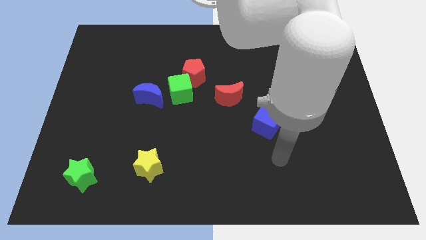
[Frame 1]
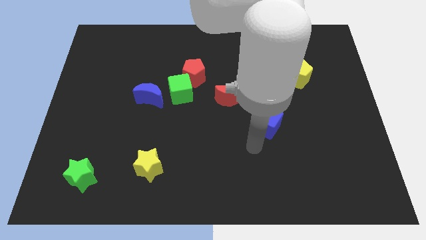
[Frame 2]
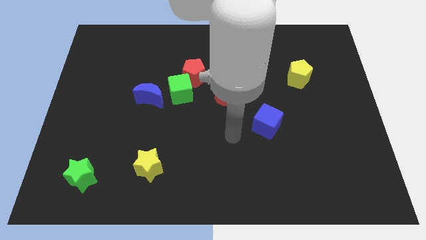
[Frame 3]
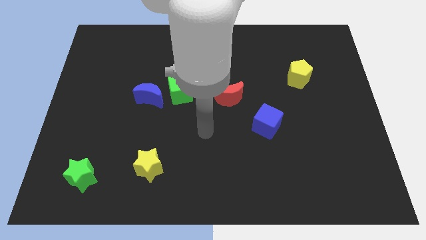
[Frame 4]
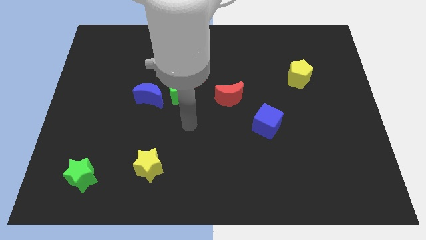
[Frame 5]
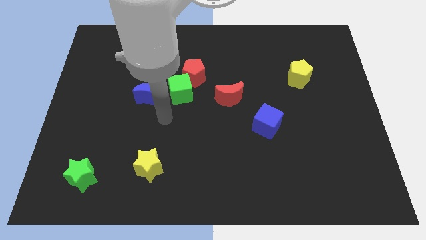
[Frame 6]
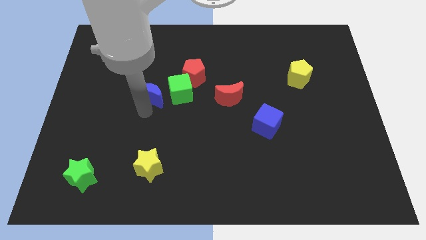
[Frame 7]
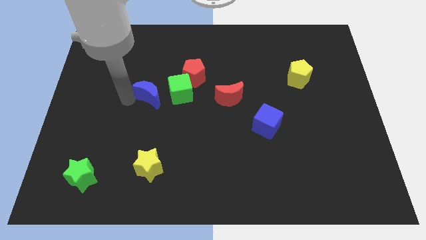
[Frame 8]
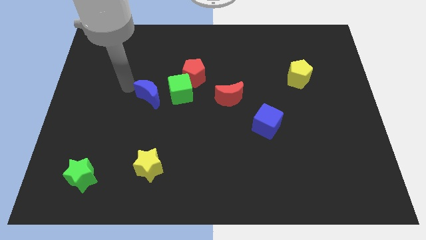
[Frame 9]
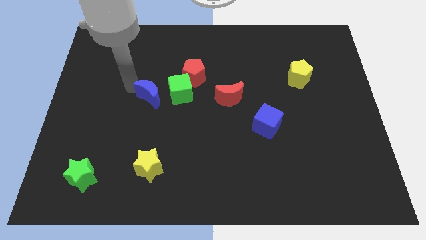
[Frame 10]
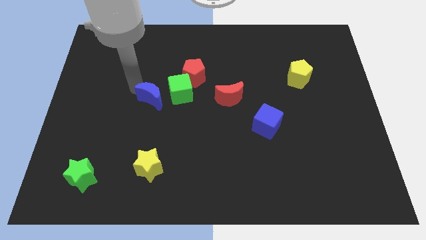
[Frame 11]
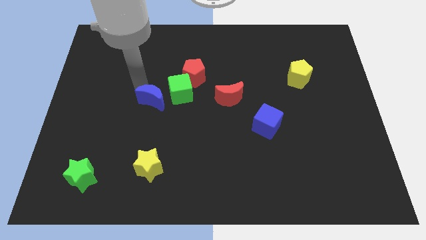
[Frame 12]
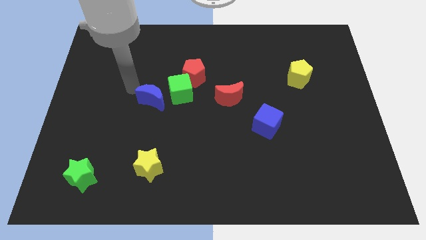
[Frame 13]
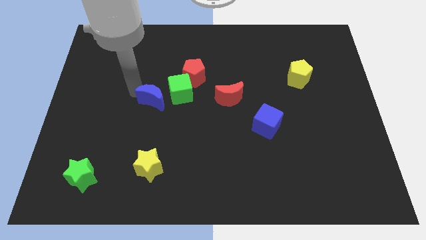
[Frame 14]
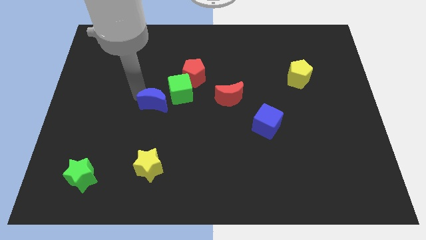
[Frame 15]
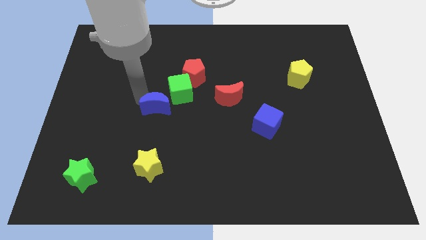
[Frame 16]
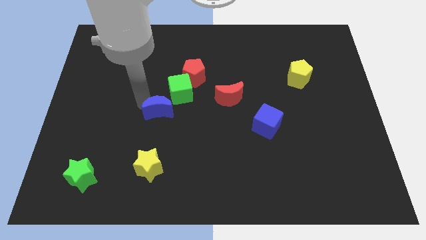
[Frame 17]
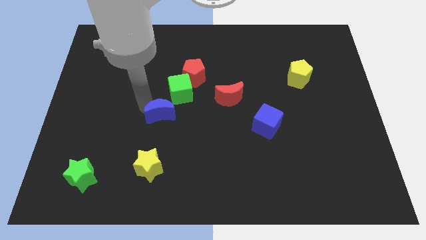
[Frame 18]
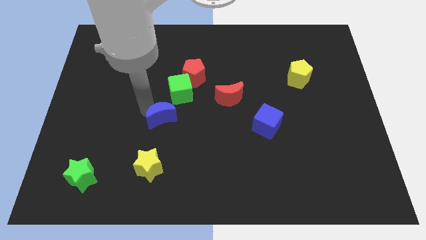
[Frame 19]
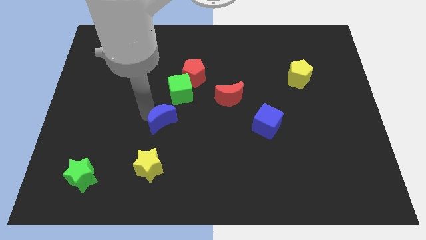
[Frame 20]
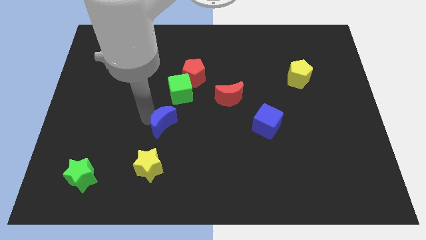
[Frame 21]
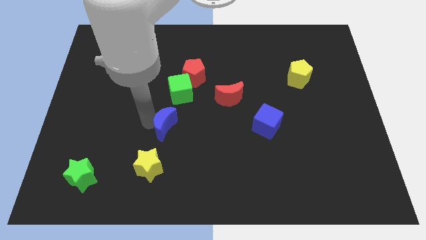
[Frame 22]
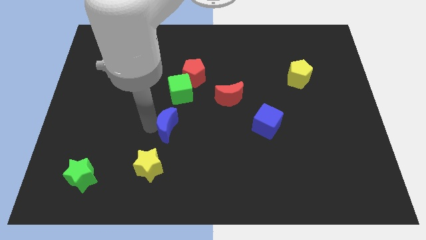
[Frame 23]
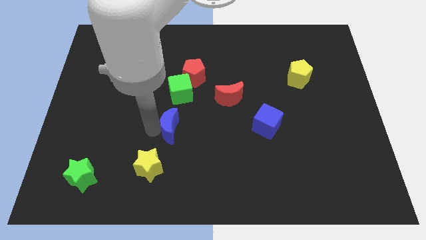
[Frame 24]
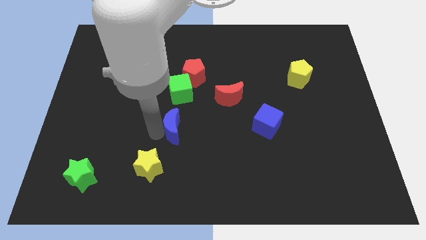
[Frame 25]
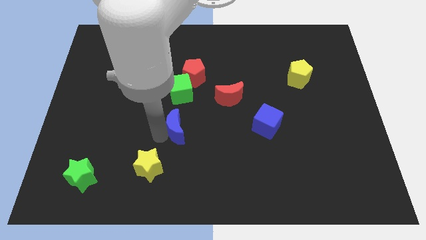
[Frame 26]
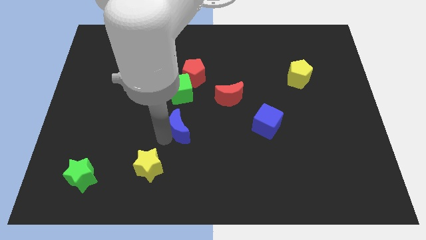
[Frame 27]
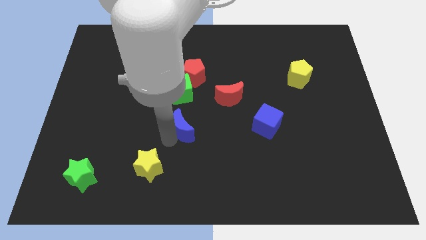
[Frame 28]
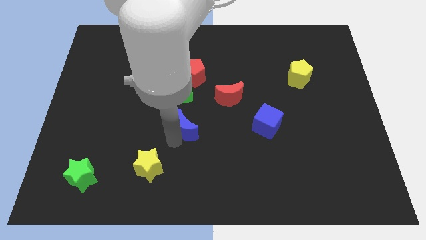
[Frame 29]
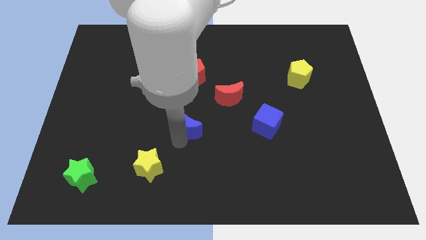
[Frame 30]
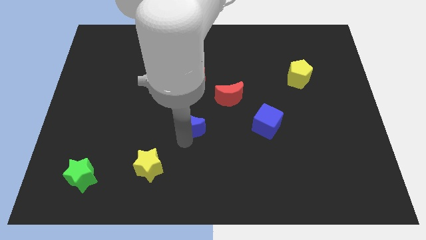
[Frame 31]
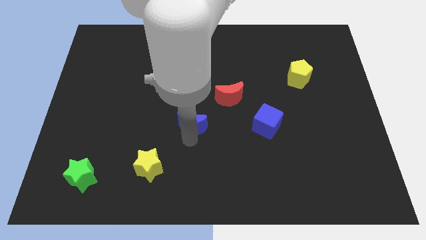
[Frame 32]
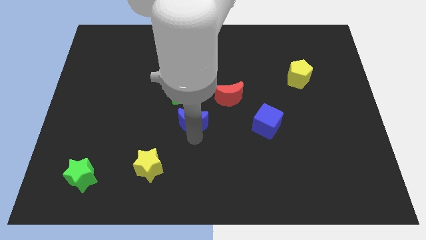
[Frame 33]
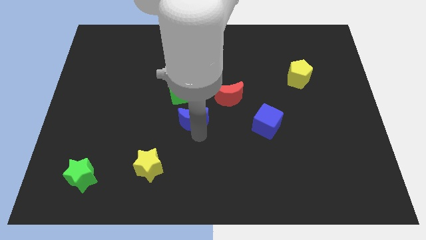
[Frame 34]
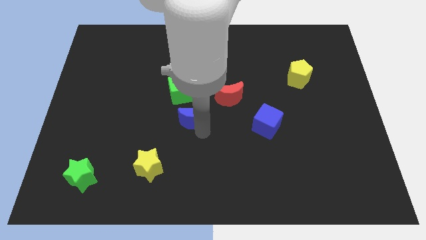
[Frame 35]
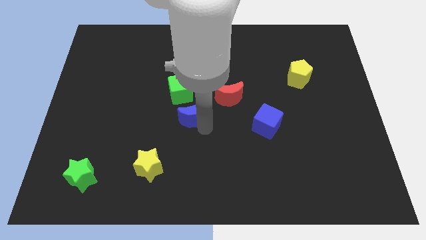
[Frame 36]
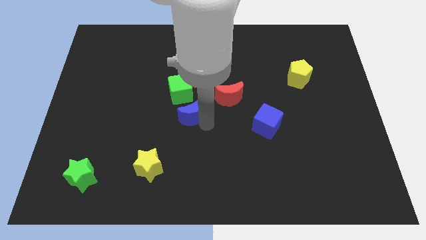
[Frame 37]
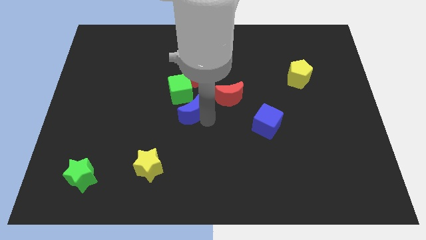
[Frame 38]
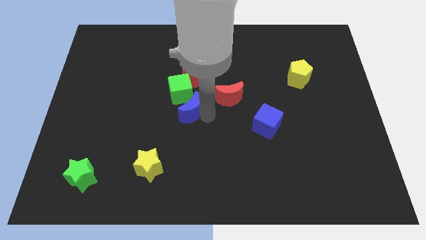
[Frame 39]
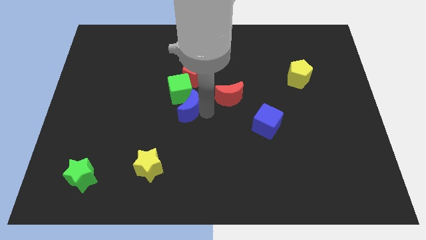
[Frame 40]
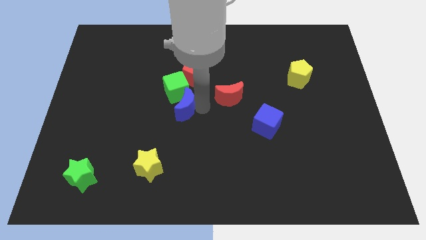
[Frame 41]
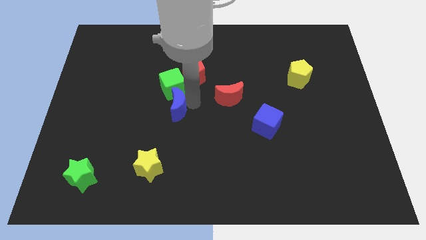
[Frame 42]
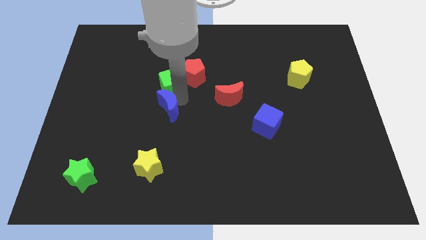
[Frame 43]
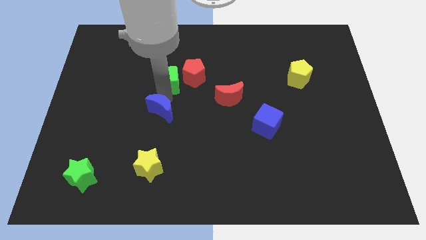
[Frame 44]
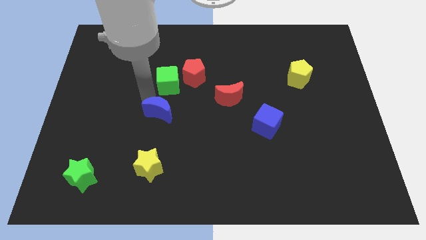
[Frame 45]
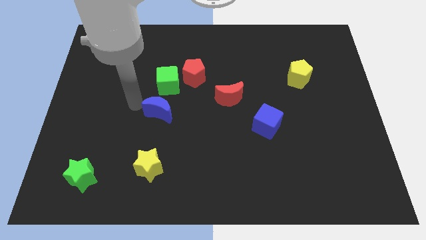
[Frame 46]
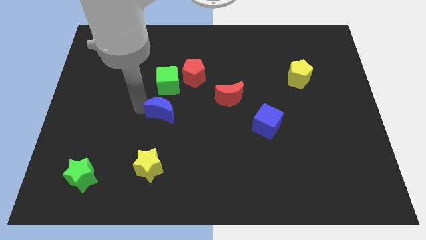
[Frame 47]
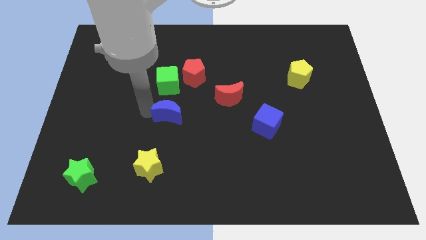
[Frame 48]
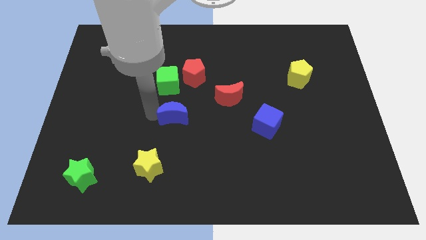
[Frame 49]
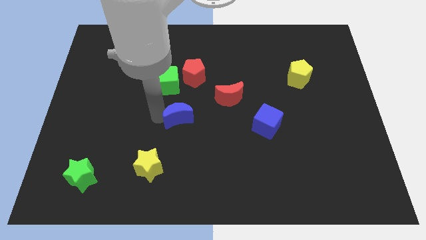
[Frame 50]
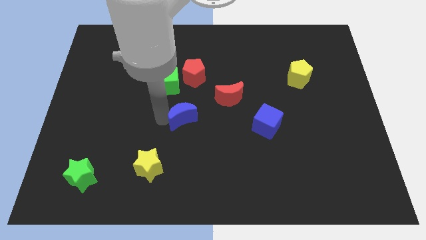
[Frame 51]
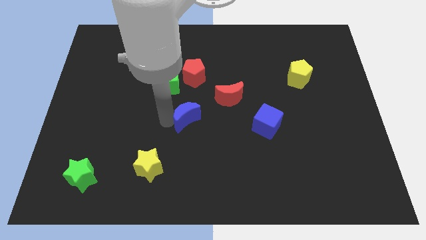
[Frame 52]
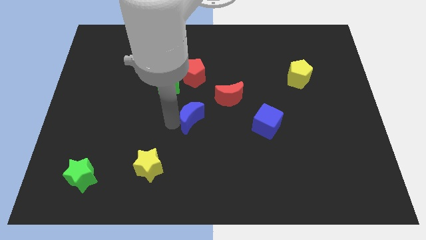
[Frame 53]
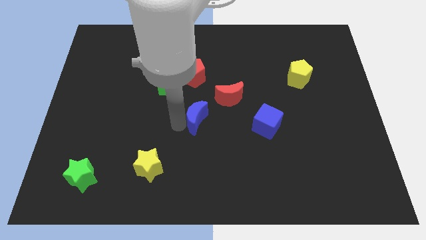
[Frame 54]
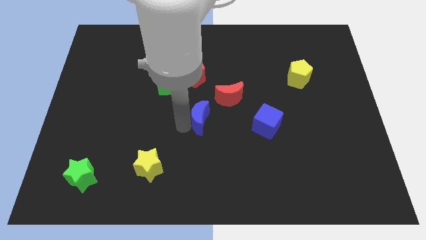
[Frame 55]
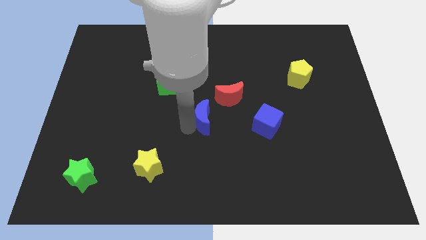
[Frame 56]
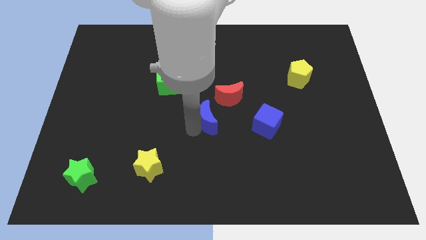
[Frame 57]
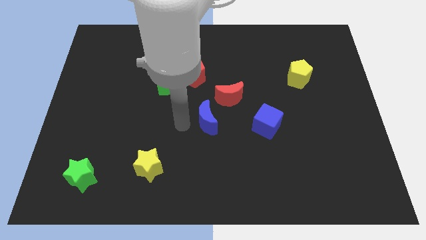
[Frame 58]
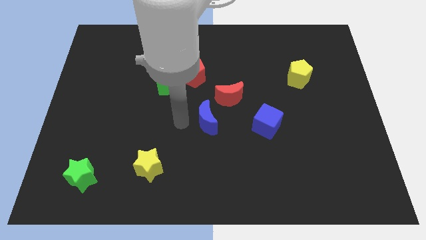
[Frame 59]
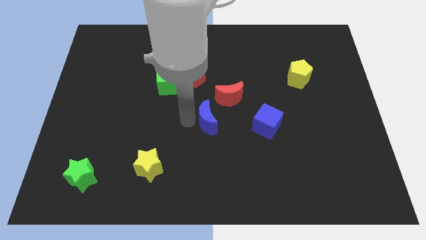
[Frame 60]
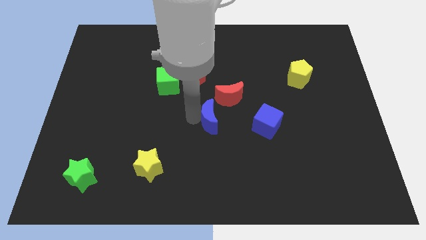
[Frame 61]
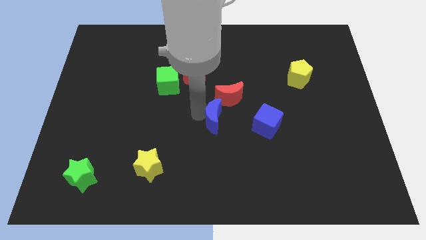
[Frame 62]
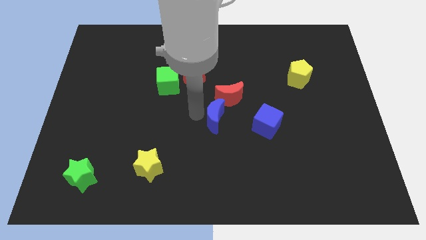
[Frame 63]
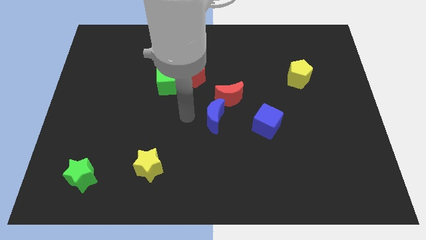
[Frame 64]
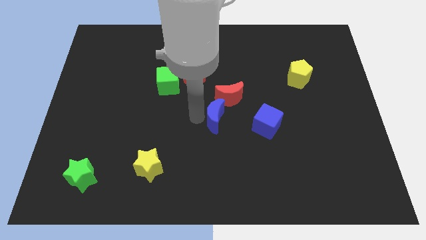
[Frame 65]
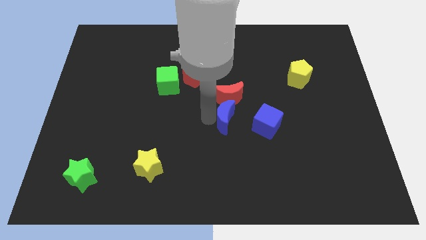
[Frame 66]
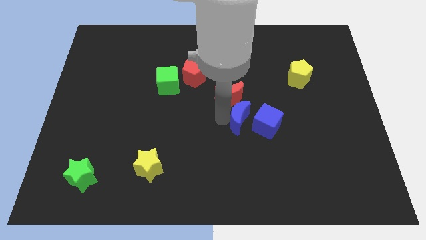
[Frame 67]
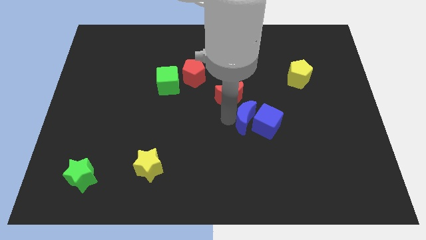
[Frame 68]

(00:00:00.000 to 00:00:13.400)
push the blue moon next to the blue cube

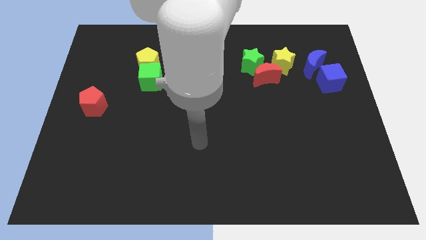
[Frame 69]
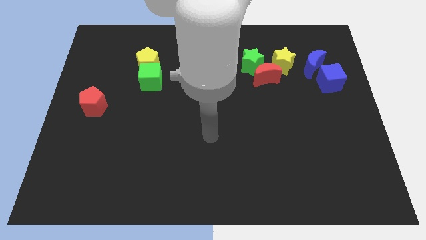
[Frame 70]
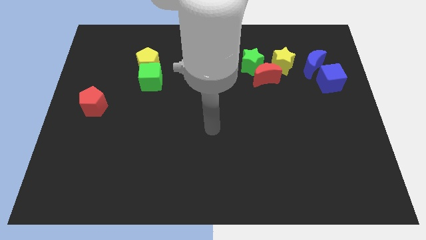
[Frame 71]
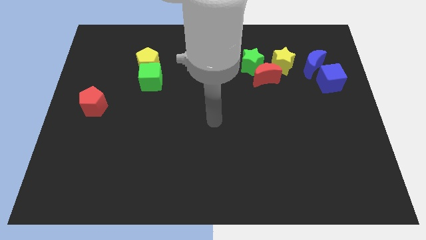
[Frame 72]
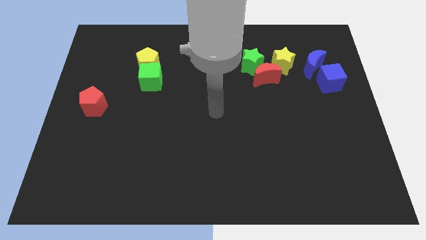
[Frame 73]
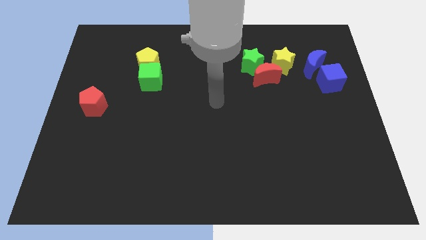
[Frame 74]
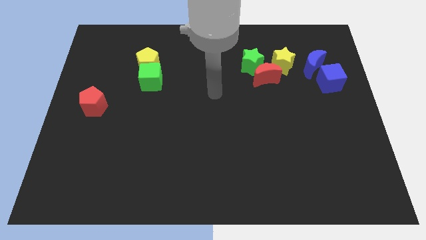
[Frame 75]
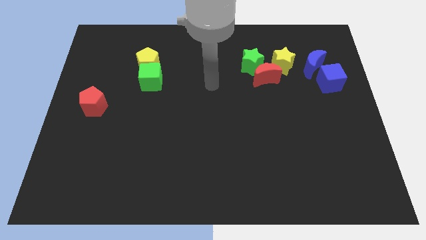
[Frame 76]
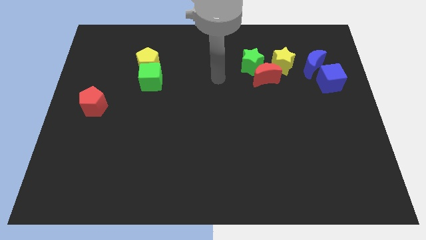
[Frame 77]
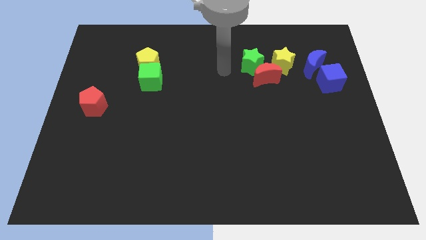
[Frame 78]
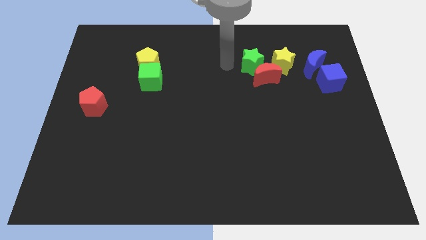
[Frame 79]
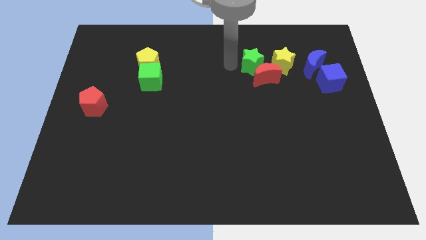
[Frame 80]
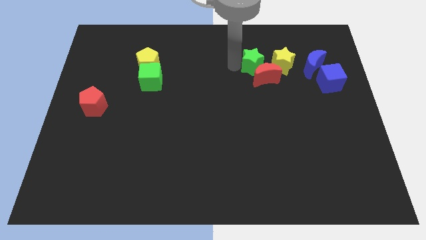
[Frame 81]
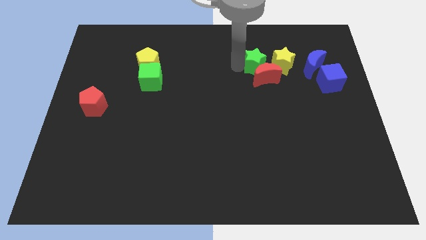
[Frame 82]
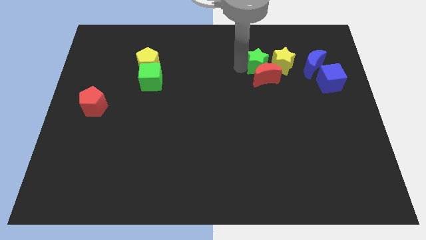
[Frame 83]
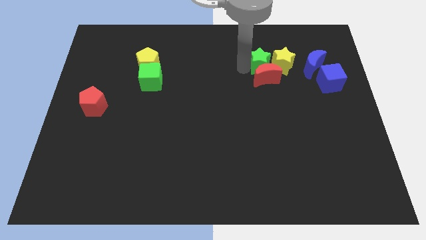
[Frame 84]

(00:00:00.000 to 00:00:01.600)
put the green star to the yellow star
